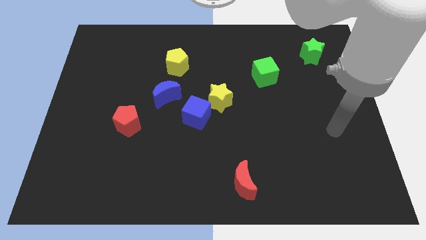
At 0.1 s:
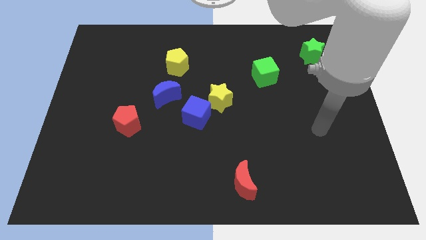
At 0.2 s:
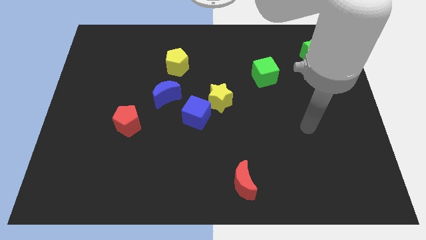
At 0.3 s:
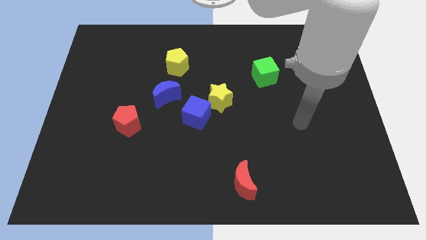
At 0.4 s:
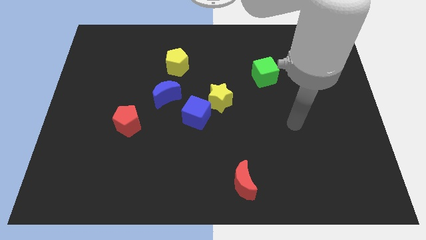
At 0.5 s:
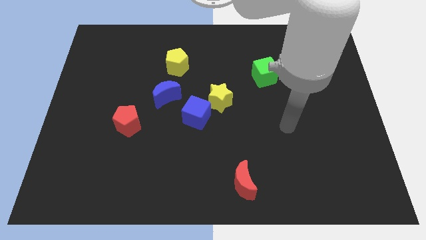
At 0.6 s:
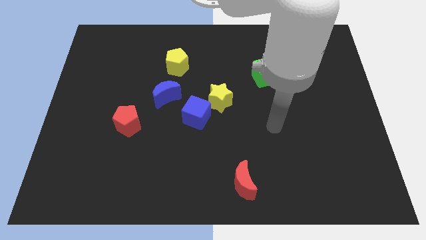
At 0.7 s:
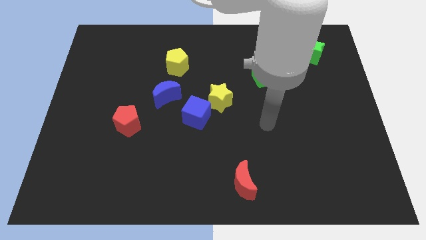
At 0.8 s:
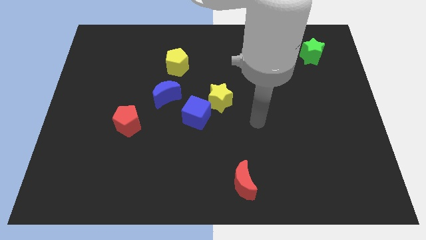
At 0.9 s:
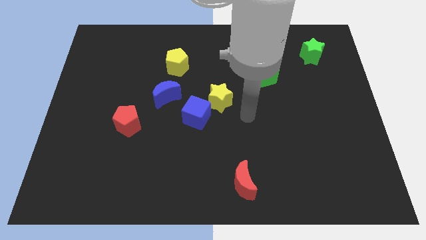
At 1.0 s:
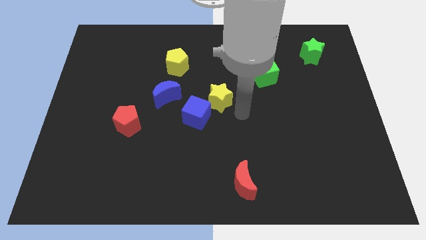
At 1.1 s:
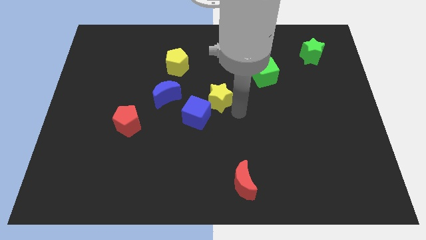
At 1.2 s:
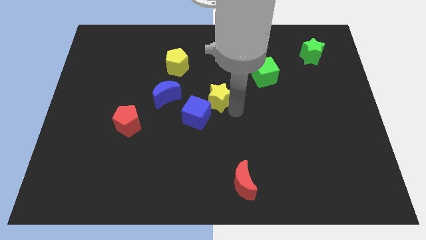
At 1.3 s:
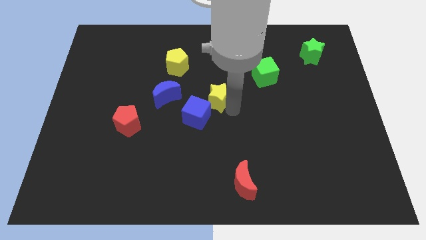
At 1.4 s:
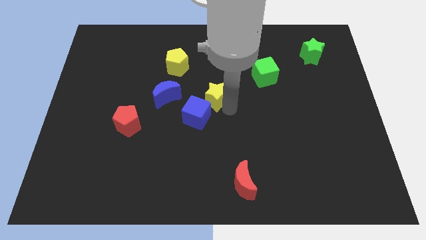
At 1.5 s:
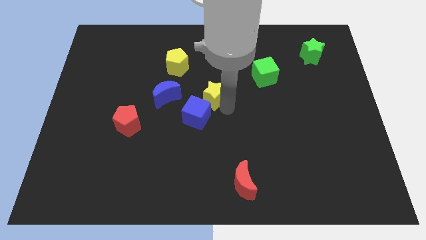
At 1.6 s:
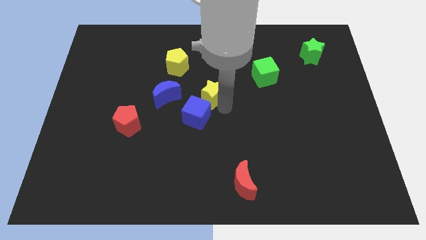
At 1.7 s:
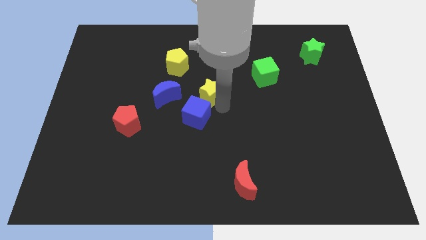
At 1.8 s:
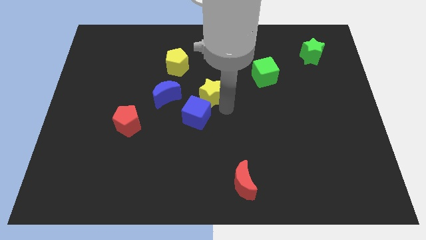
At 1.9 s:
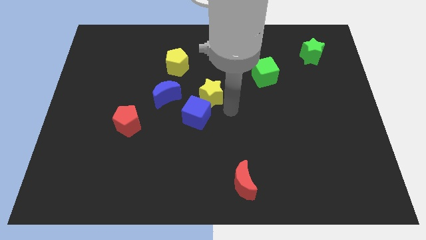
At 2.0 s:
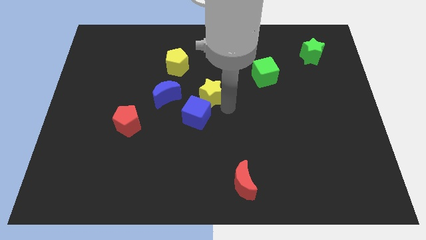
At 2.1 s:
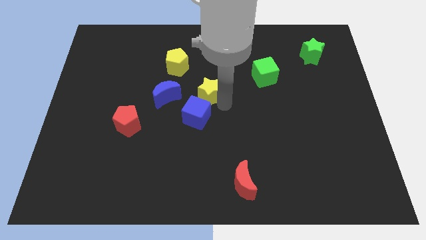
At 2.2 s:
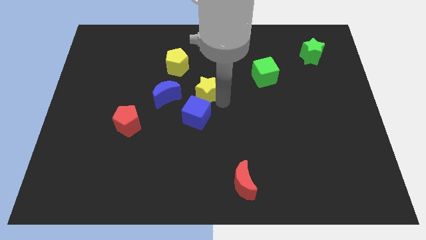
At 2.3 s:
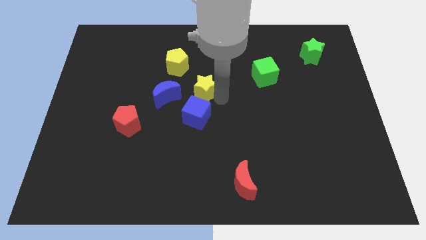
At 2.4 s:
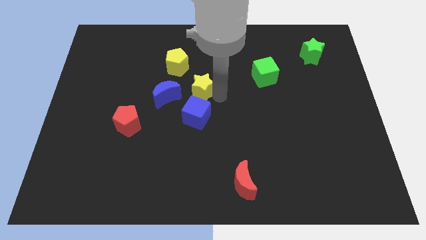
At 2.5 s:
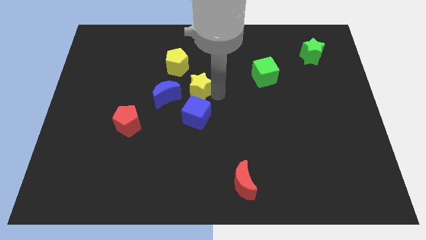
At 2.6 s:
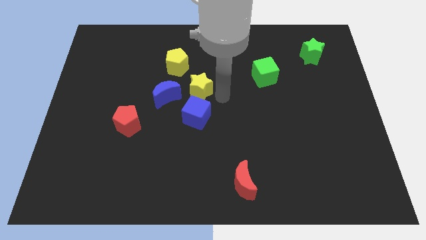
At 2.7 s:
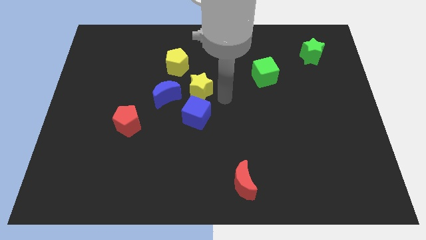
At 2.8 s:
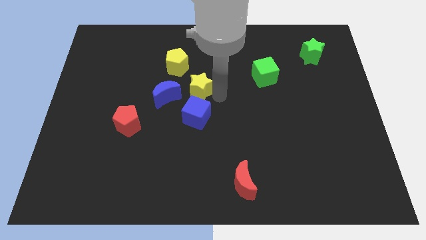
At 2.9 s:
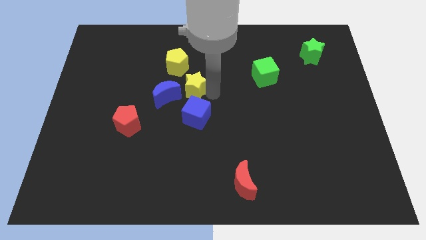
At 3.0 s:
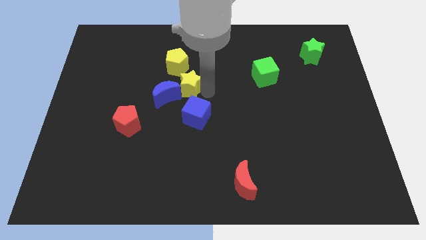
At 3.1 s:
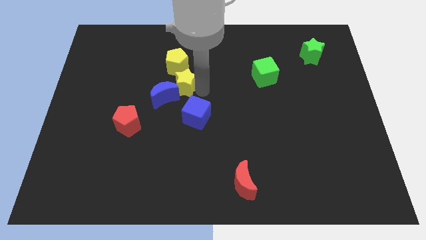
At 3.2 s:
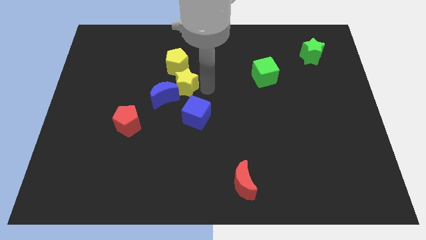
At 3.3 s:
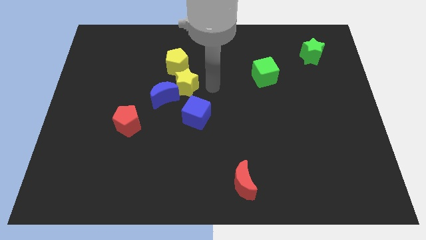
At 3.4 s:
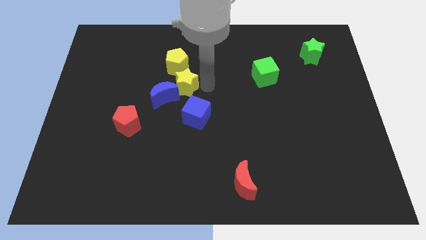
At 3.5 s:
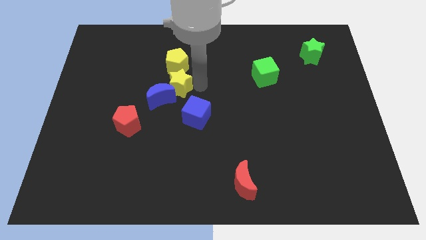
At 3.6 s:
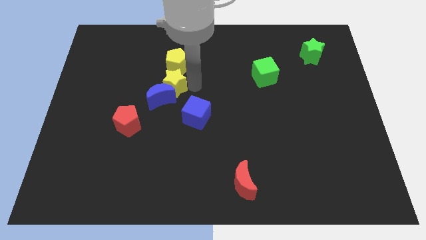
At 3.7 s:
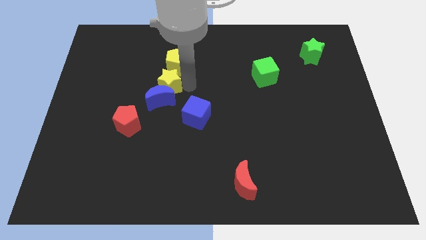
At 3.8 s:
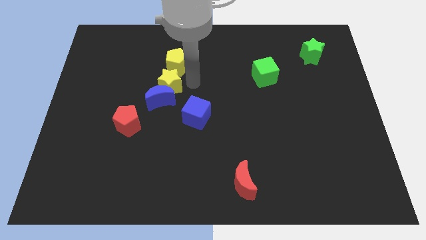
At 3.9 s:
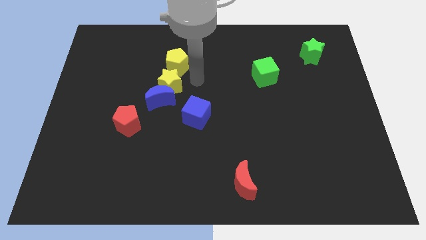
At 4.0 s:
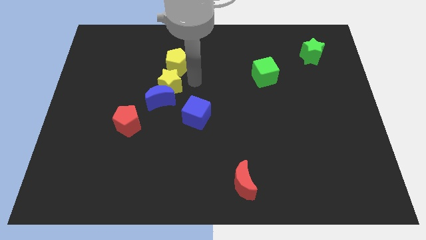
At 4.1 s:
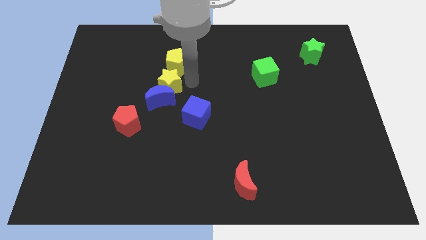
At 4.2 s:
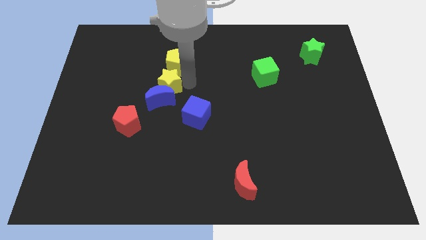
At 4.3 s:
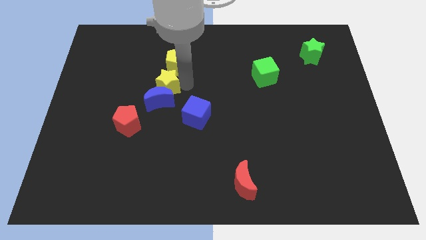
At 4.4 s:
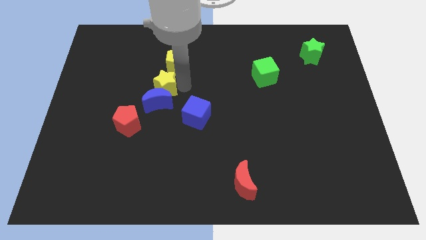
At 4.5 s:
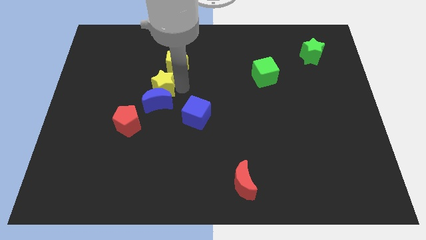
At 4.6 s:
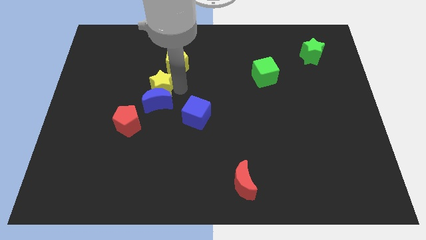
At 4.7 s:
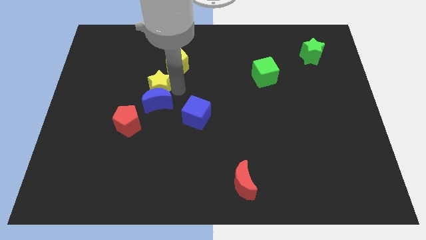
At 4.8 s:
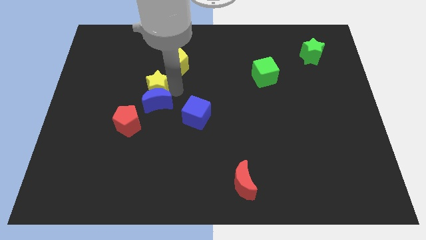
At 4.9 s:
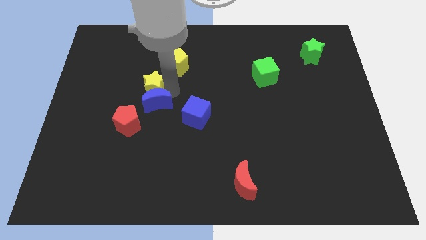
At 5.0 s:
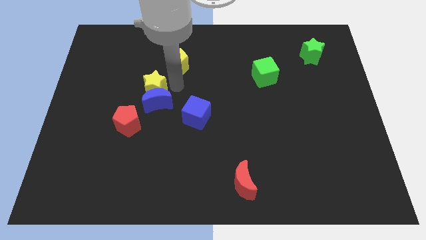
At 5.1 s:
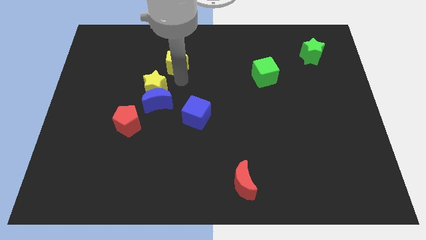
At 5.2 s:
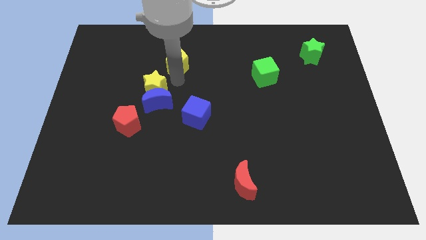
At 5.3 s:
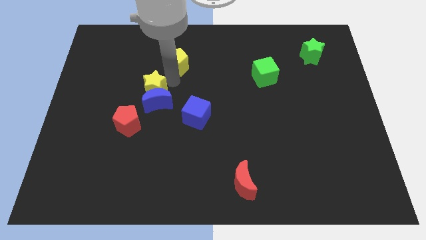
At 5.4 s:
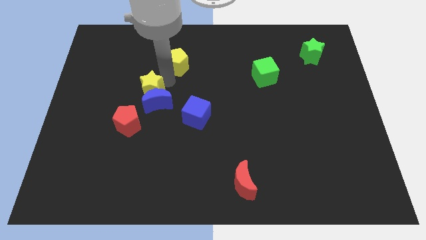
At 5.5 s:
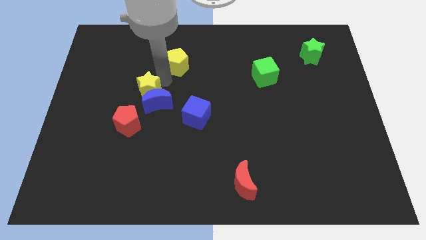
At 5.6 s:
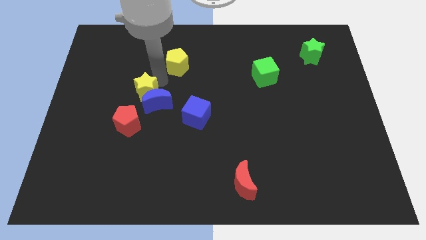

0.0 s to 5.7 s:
push the yellow star just left of the blue moon

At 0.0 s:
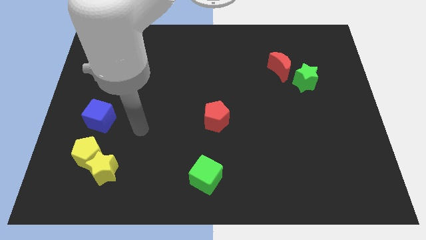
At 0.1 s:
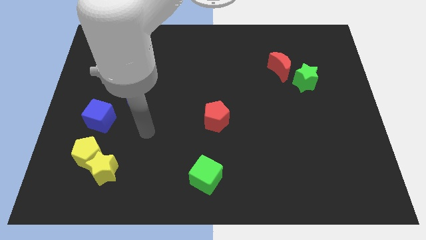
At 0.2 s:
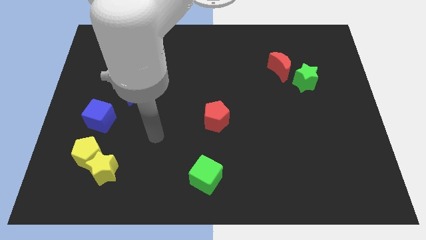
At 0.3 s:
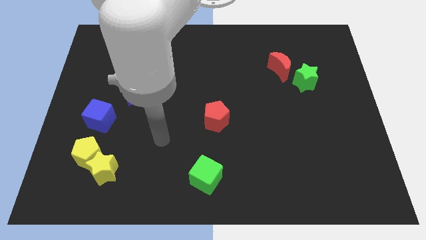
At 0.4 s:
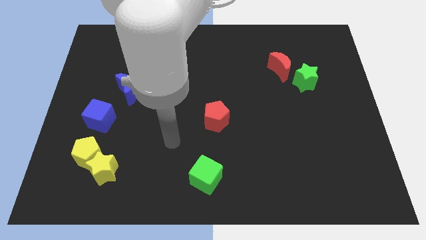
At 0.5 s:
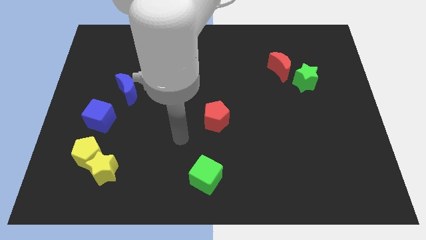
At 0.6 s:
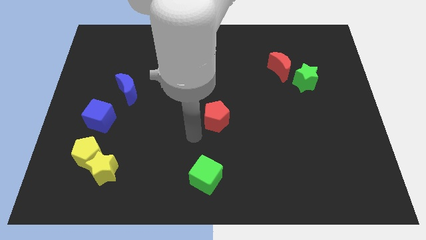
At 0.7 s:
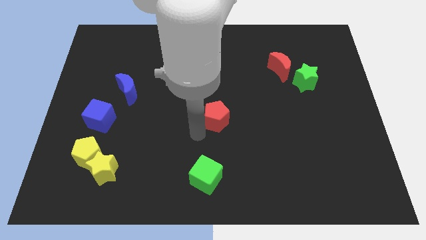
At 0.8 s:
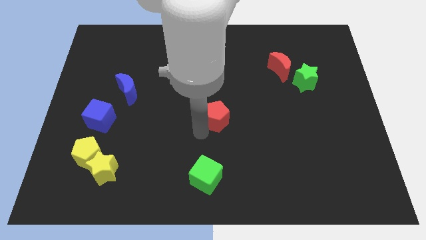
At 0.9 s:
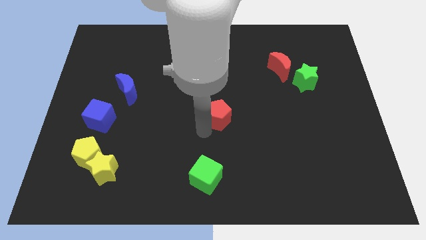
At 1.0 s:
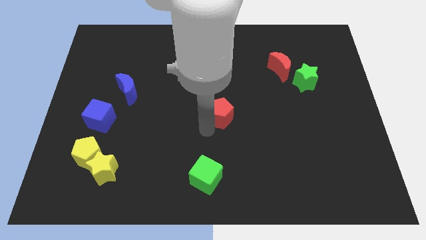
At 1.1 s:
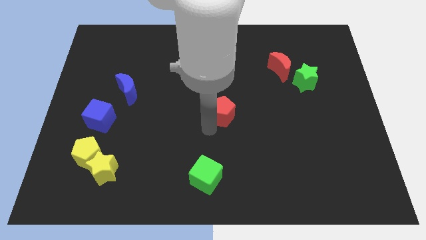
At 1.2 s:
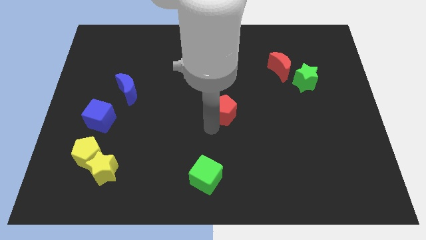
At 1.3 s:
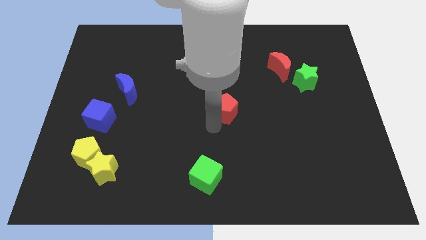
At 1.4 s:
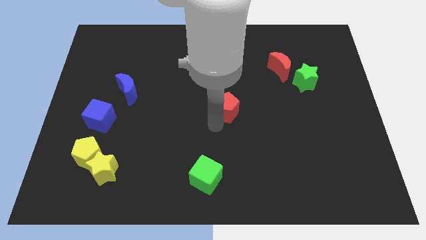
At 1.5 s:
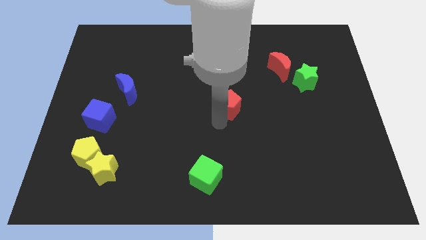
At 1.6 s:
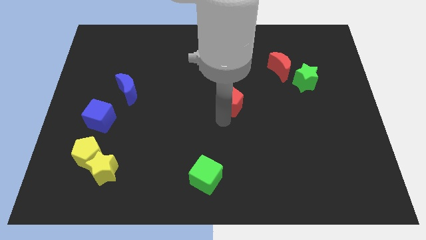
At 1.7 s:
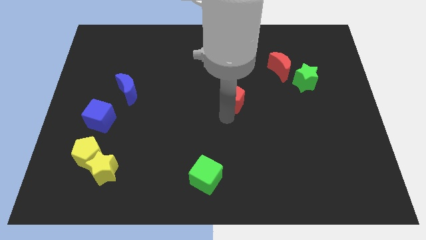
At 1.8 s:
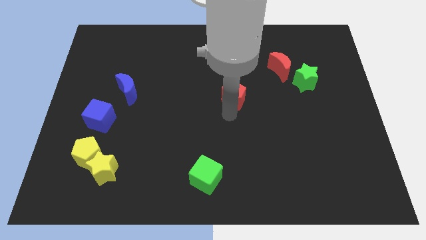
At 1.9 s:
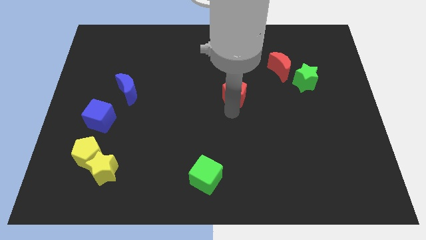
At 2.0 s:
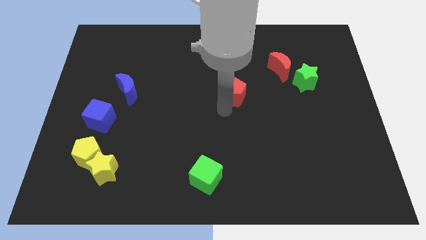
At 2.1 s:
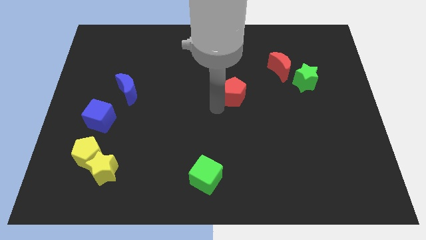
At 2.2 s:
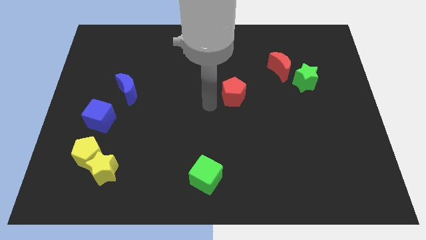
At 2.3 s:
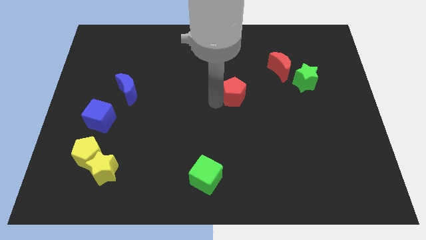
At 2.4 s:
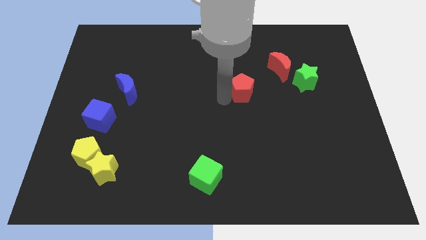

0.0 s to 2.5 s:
put the red pentagon to the bottom left side of the red moon

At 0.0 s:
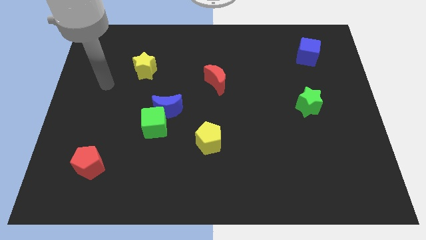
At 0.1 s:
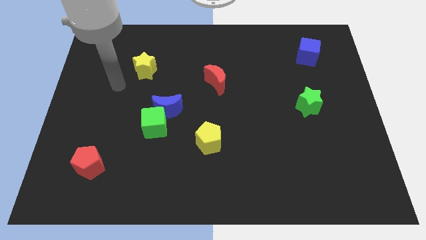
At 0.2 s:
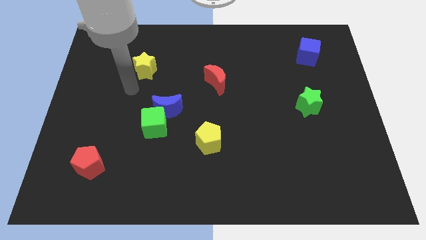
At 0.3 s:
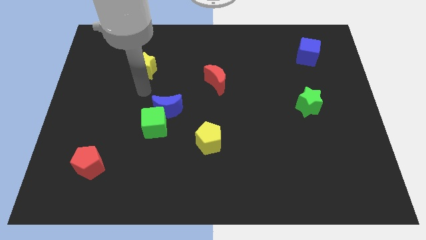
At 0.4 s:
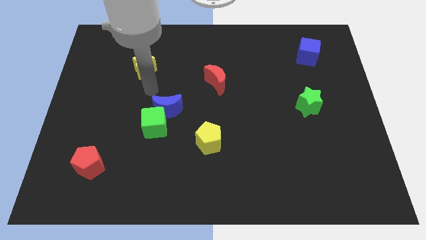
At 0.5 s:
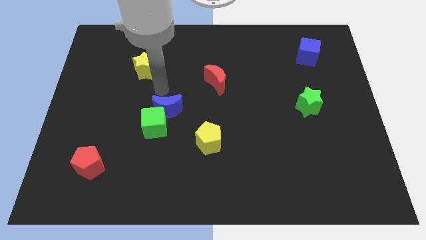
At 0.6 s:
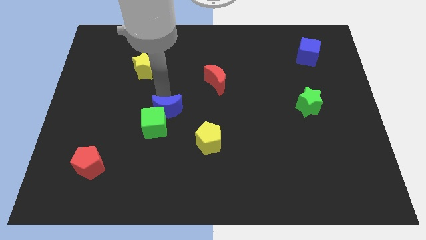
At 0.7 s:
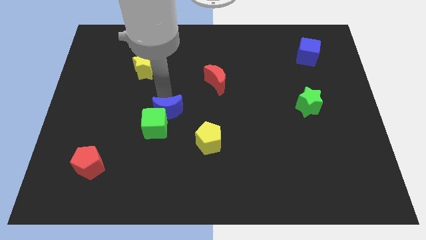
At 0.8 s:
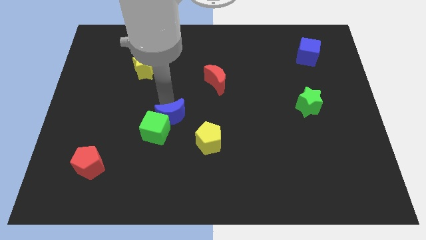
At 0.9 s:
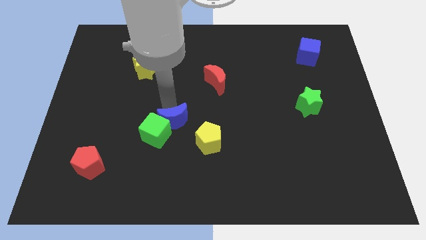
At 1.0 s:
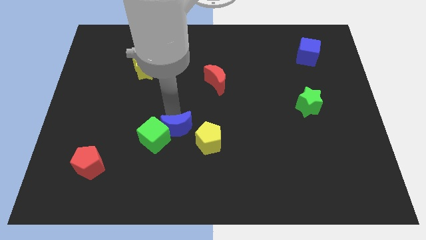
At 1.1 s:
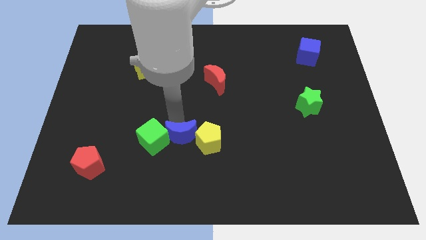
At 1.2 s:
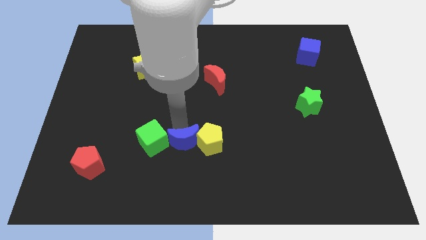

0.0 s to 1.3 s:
push the blue moon diagonally down and to the left of the yellow pentagon
